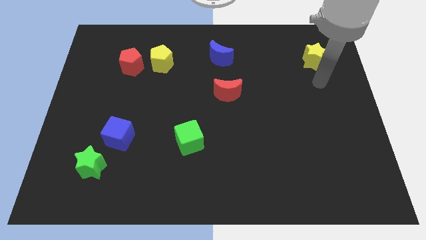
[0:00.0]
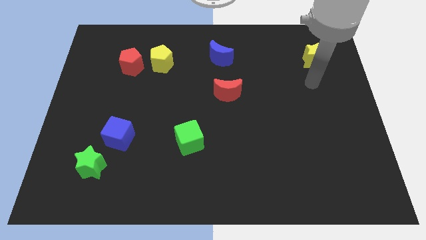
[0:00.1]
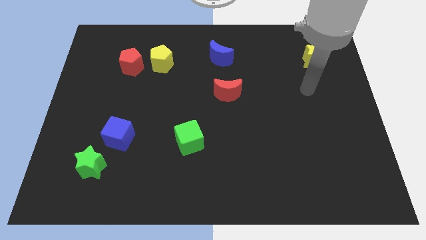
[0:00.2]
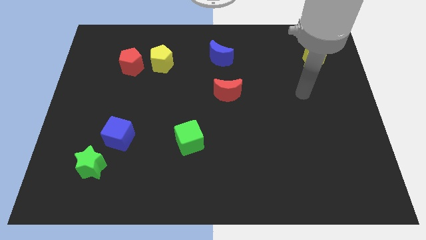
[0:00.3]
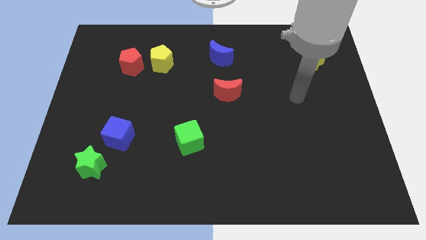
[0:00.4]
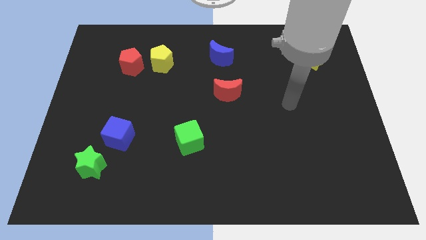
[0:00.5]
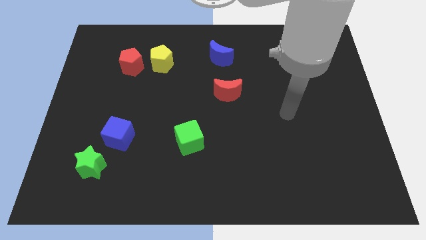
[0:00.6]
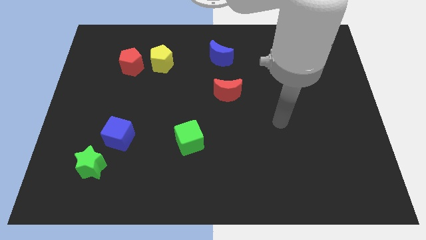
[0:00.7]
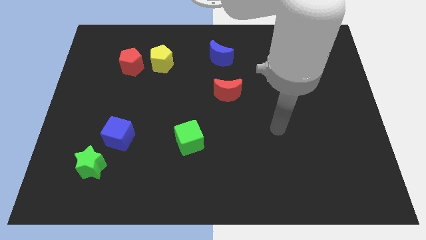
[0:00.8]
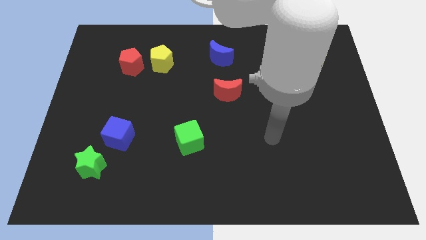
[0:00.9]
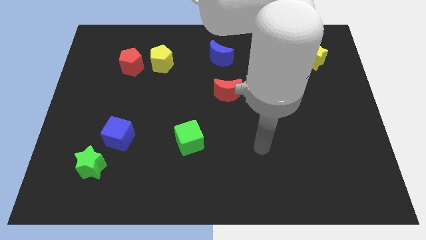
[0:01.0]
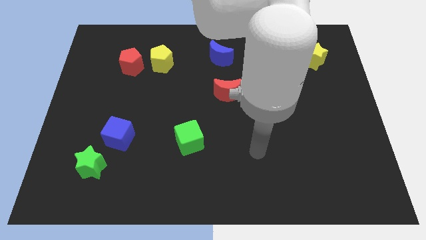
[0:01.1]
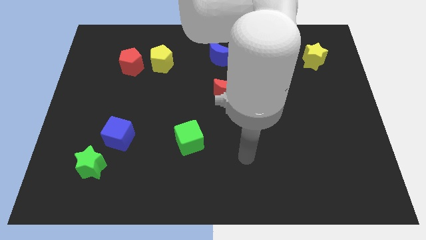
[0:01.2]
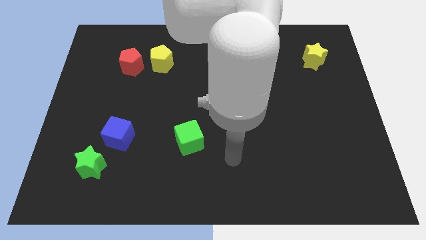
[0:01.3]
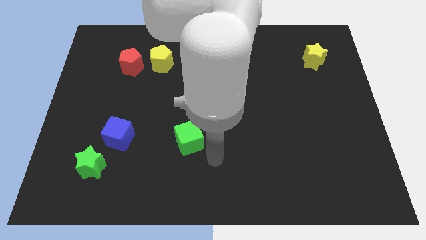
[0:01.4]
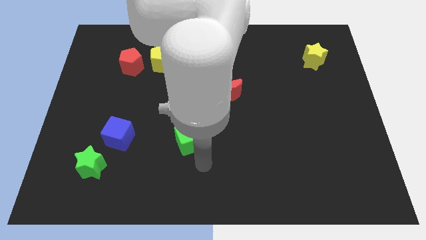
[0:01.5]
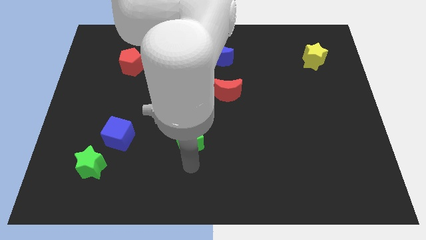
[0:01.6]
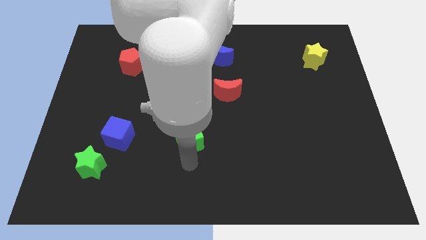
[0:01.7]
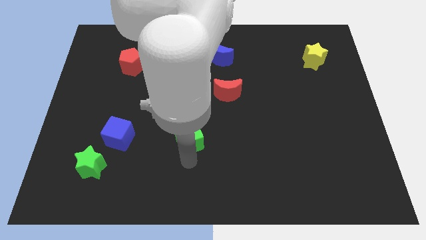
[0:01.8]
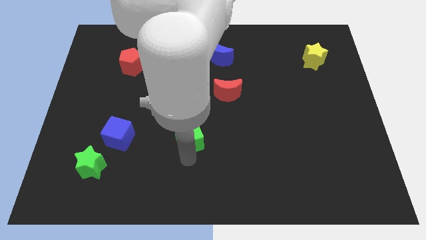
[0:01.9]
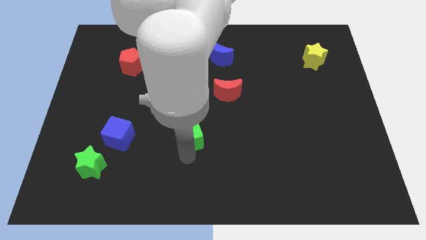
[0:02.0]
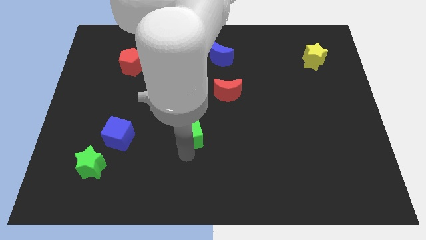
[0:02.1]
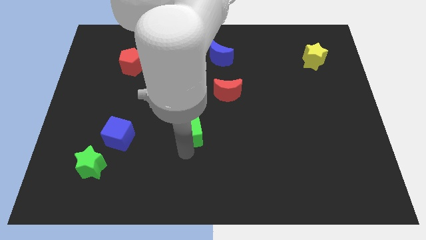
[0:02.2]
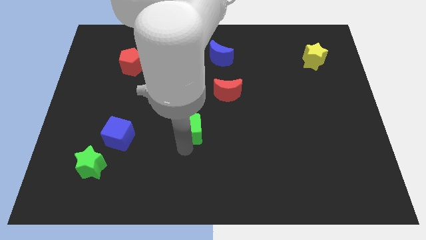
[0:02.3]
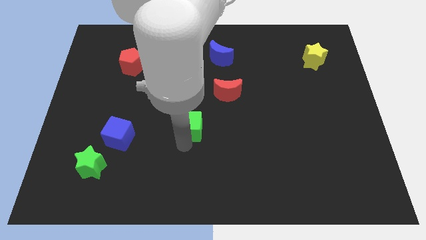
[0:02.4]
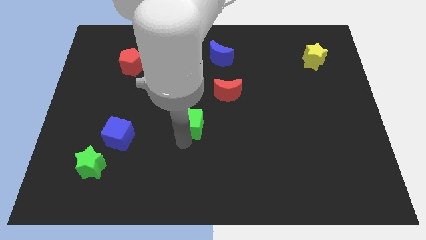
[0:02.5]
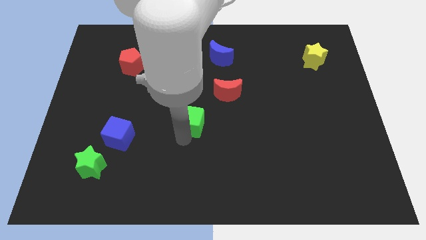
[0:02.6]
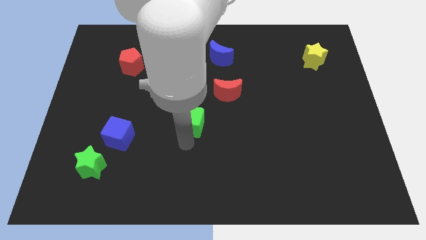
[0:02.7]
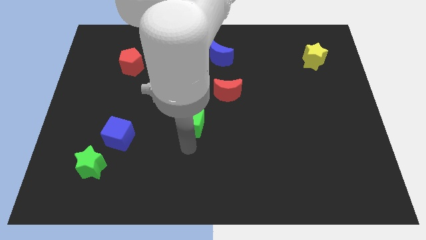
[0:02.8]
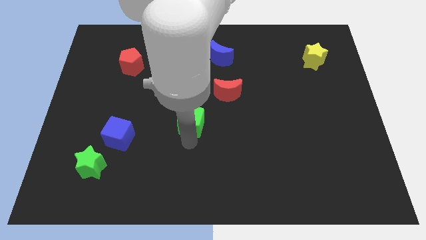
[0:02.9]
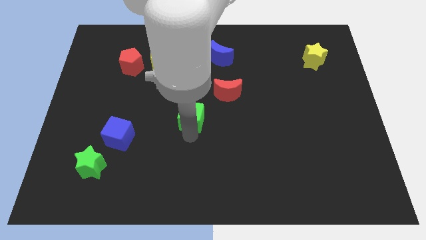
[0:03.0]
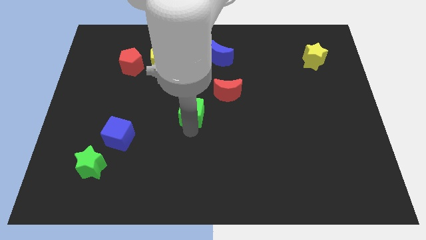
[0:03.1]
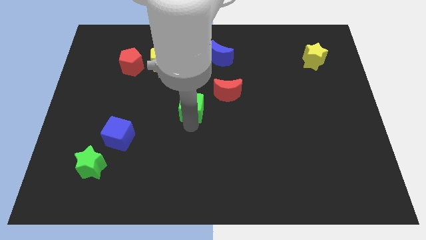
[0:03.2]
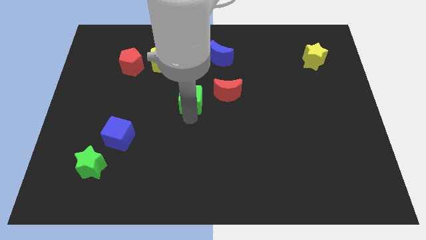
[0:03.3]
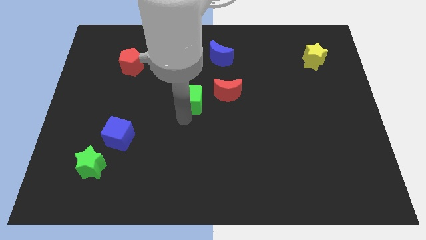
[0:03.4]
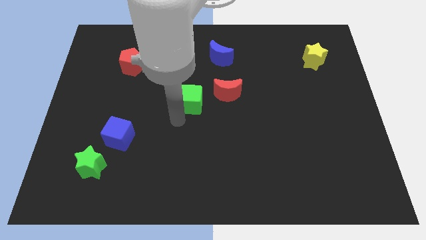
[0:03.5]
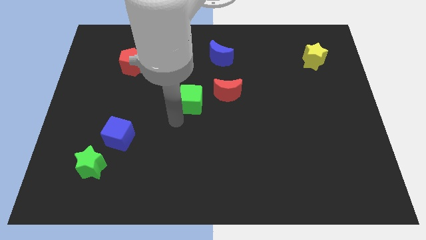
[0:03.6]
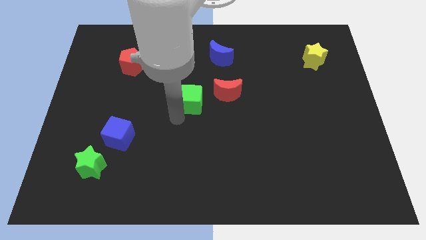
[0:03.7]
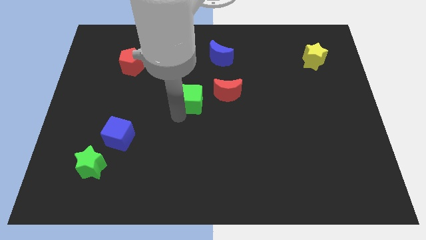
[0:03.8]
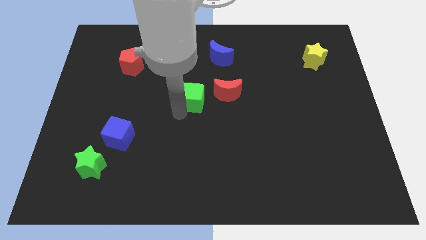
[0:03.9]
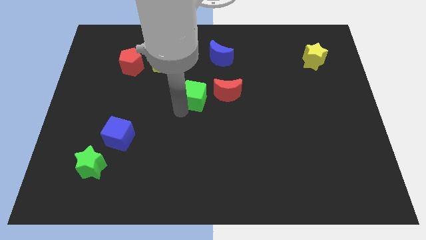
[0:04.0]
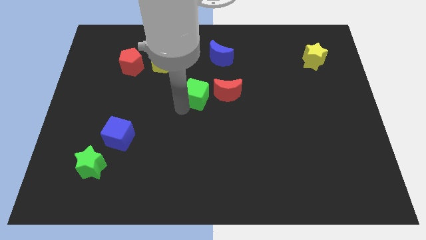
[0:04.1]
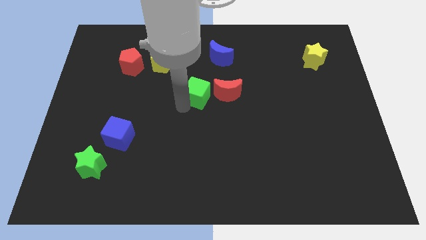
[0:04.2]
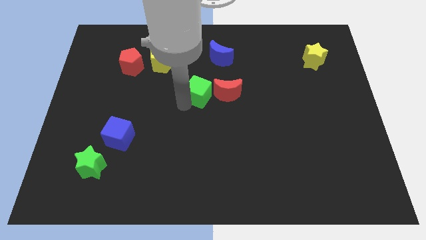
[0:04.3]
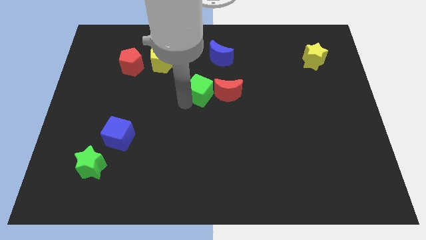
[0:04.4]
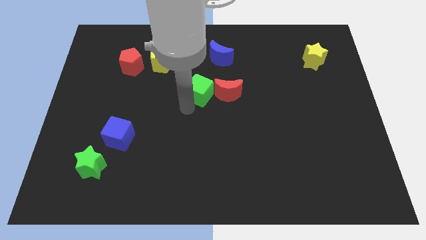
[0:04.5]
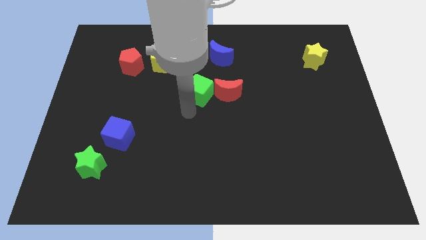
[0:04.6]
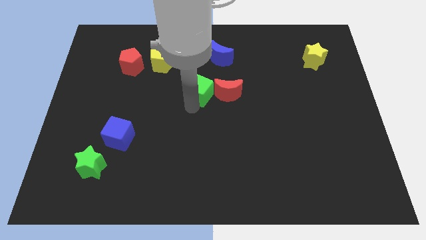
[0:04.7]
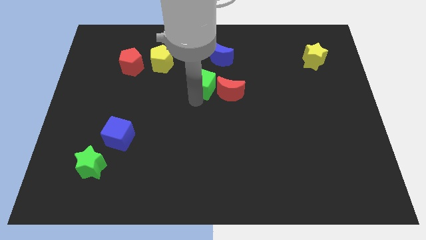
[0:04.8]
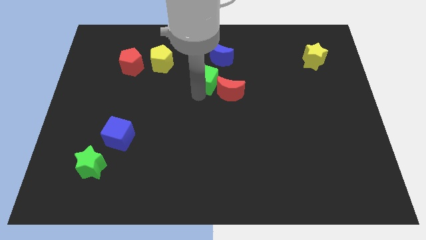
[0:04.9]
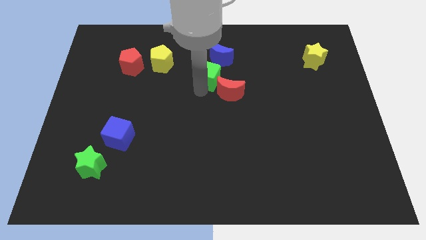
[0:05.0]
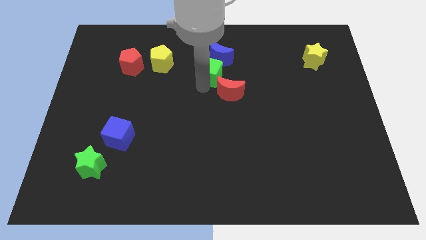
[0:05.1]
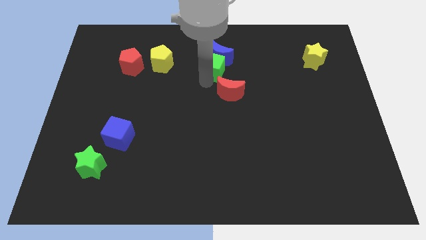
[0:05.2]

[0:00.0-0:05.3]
push the green cube next to the blue moon

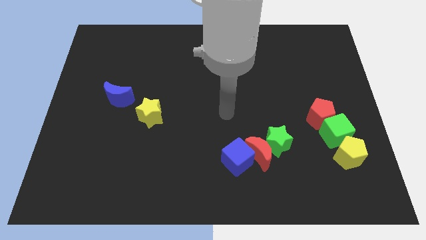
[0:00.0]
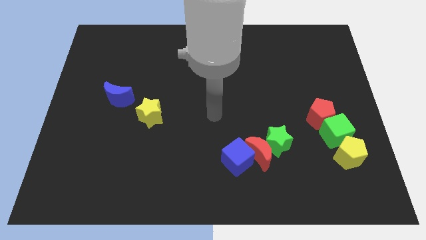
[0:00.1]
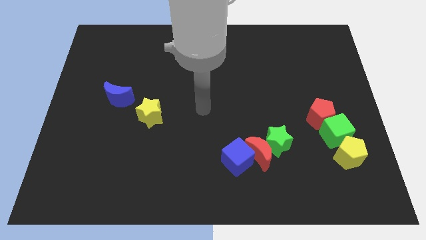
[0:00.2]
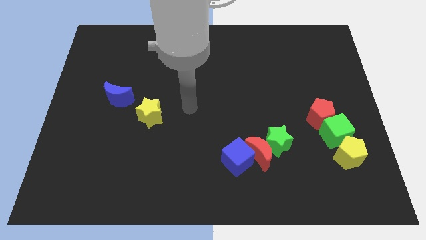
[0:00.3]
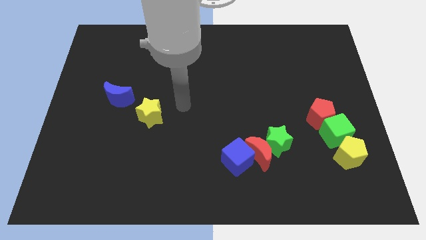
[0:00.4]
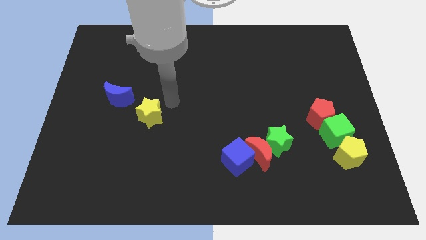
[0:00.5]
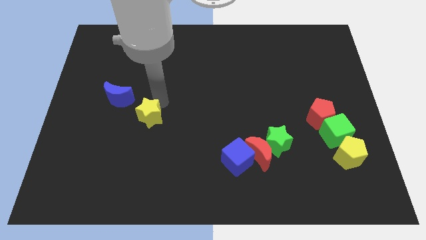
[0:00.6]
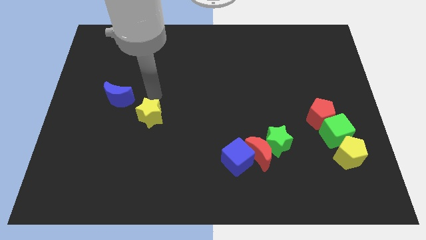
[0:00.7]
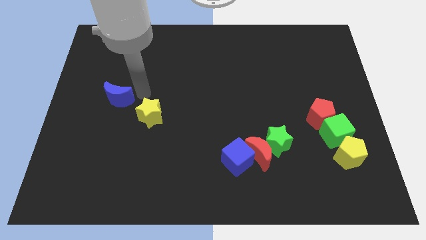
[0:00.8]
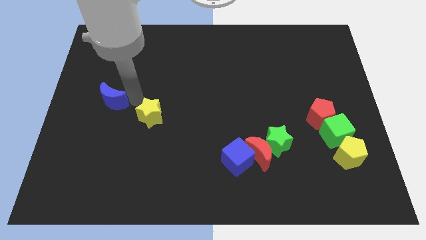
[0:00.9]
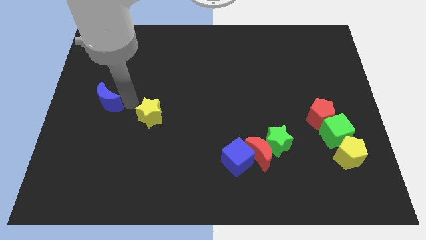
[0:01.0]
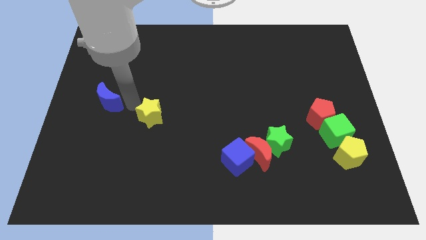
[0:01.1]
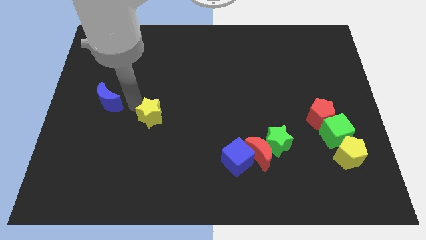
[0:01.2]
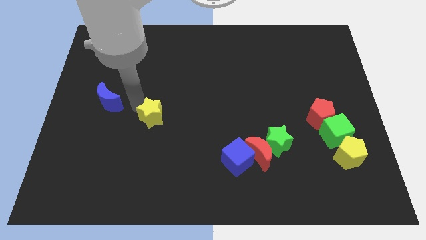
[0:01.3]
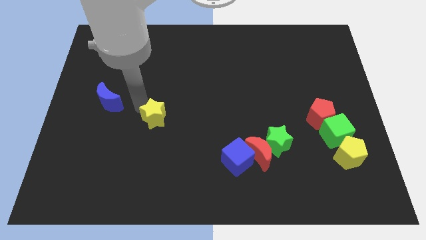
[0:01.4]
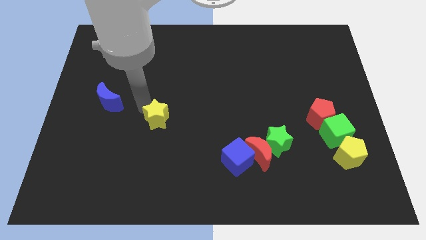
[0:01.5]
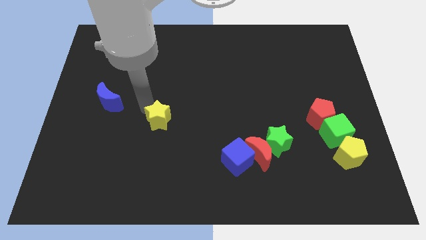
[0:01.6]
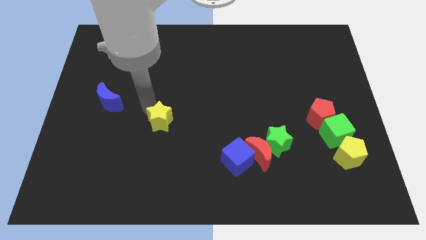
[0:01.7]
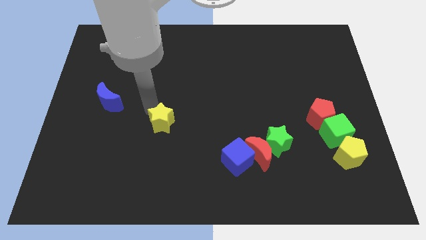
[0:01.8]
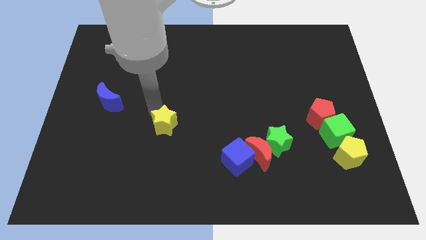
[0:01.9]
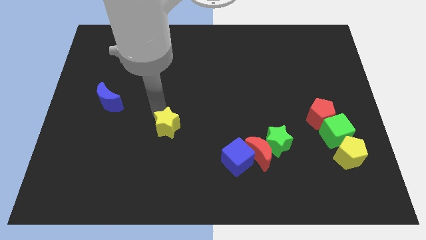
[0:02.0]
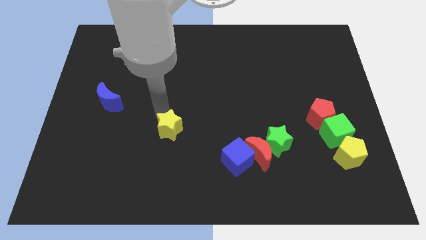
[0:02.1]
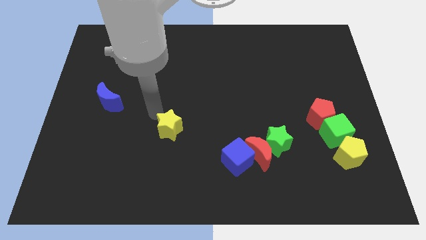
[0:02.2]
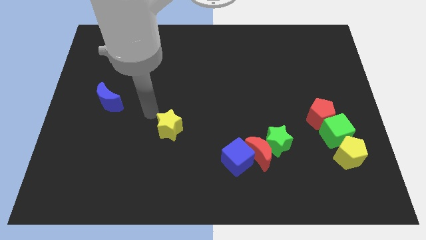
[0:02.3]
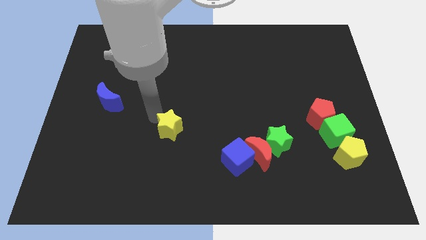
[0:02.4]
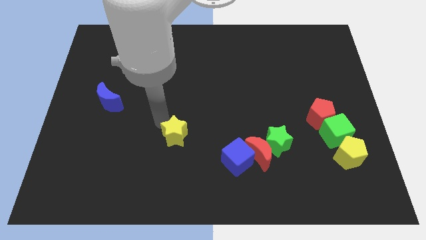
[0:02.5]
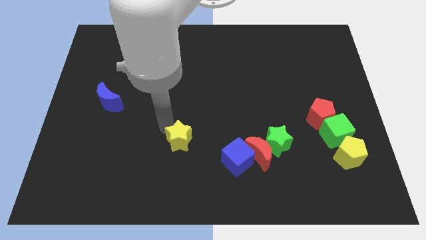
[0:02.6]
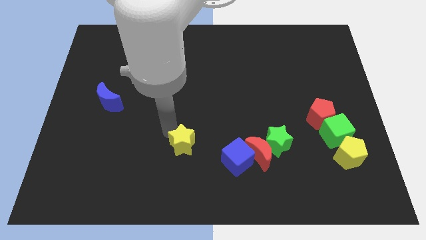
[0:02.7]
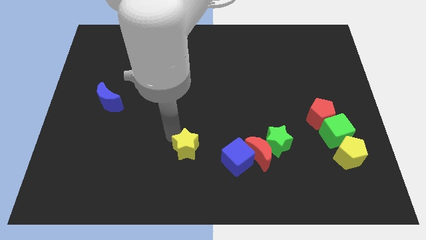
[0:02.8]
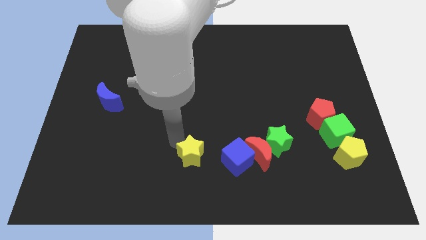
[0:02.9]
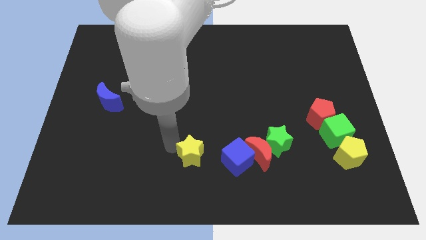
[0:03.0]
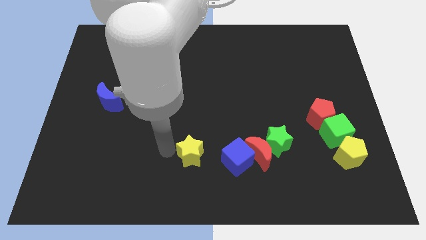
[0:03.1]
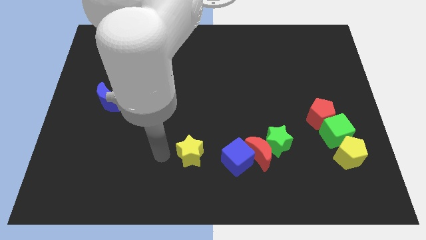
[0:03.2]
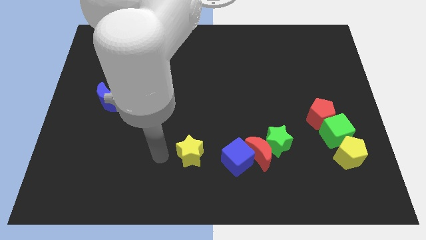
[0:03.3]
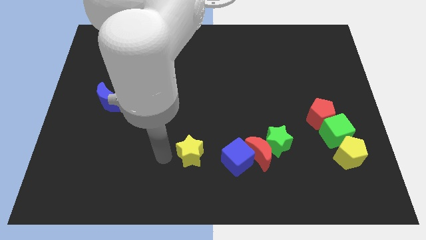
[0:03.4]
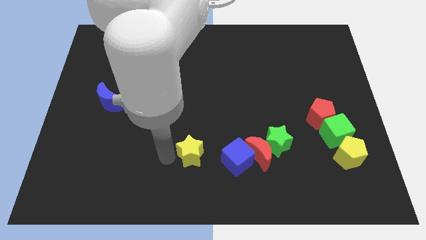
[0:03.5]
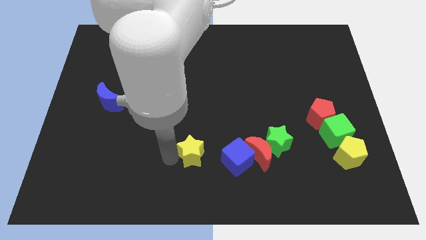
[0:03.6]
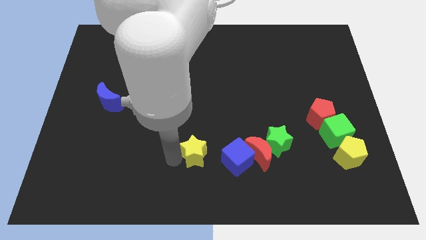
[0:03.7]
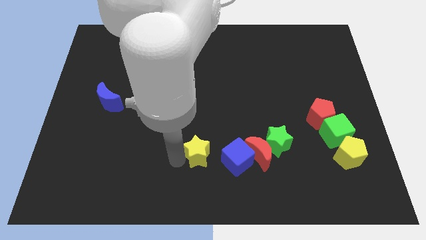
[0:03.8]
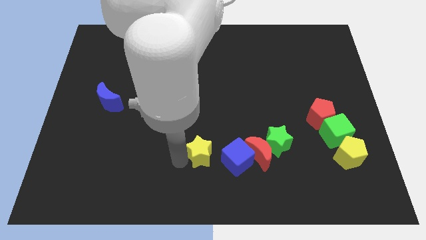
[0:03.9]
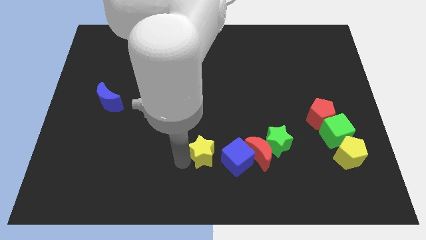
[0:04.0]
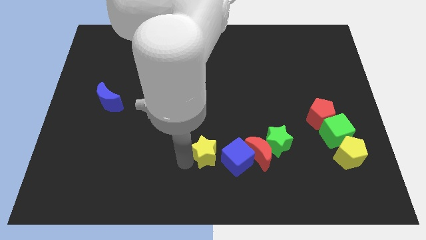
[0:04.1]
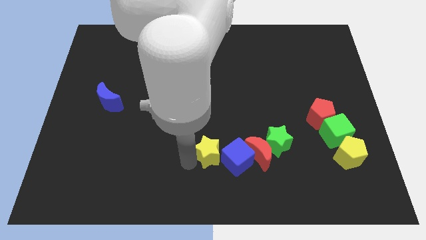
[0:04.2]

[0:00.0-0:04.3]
slide the yellow star close to the blue cube
